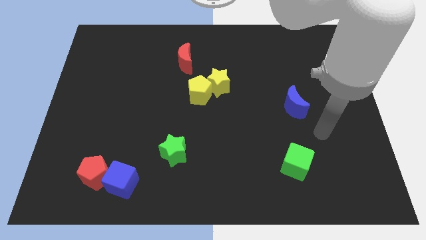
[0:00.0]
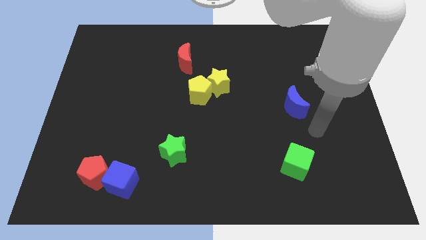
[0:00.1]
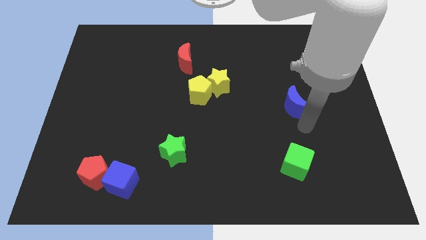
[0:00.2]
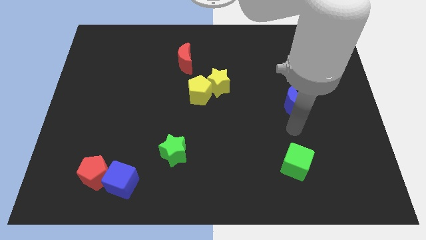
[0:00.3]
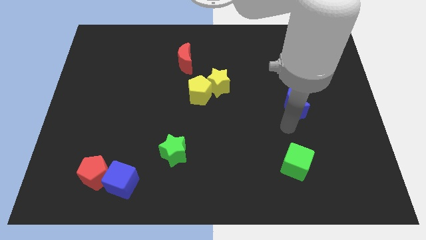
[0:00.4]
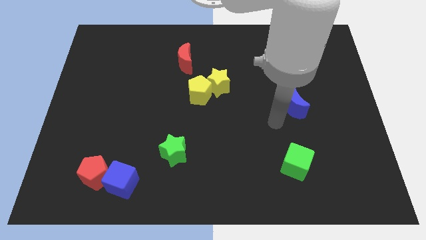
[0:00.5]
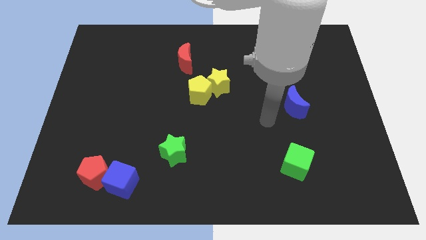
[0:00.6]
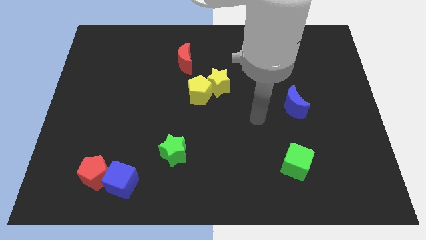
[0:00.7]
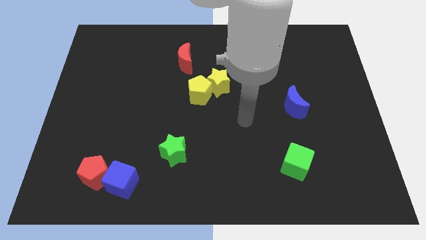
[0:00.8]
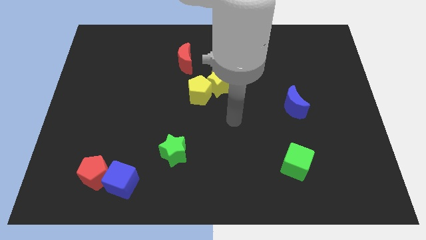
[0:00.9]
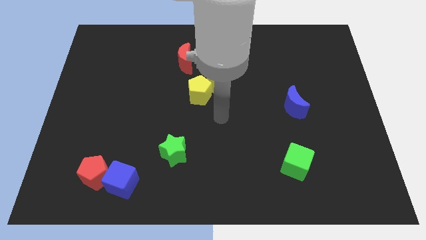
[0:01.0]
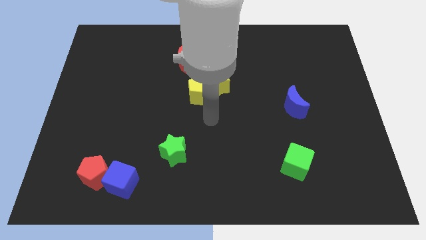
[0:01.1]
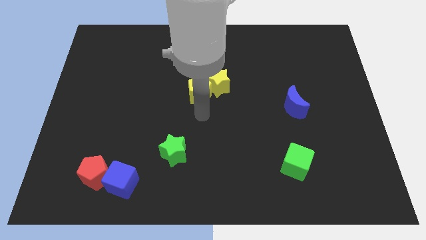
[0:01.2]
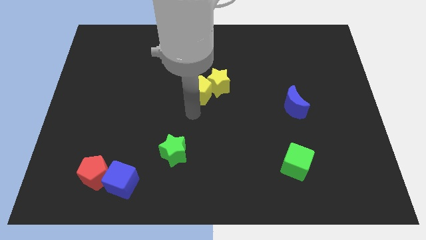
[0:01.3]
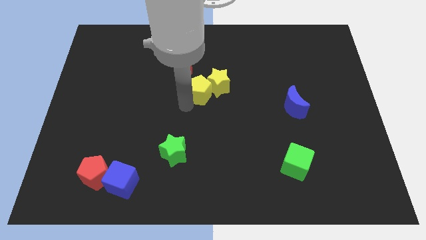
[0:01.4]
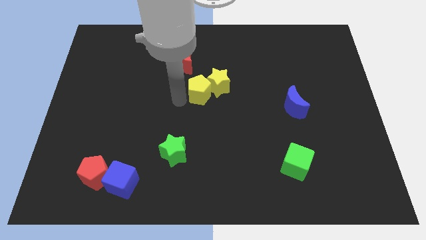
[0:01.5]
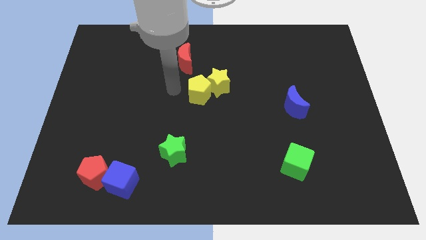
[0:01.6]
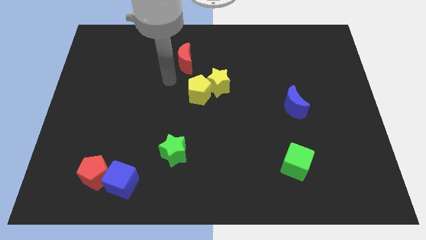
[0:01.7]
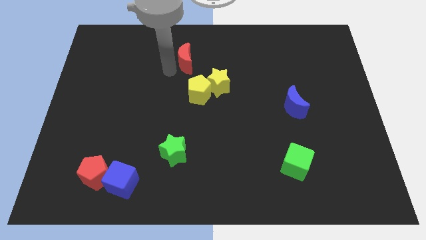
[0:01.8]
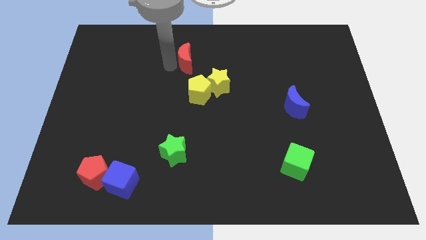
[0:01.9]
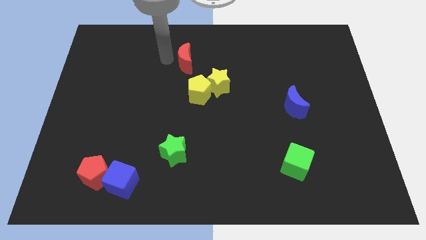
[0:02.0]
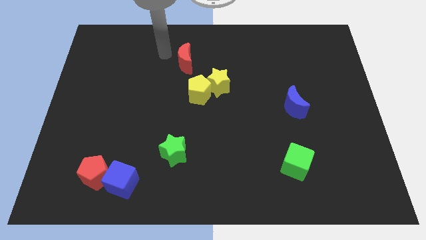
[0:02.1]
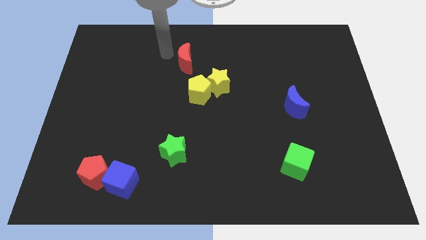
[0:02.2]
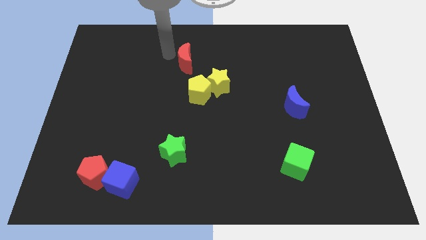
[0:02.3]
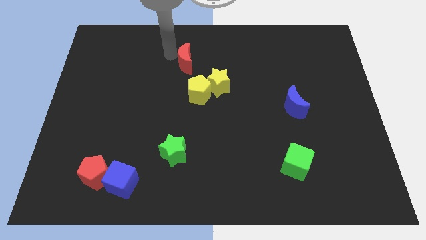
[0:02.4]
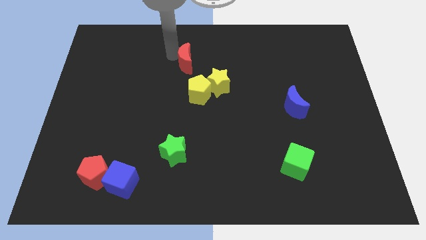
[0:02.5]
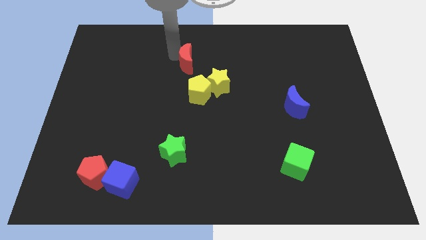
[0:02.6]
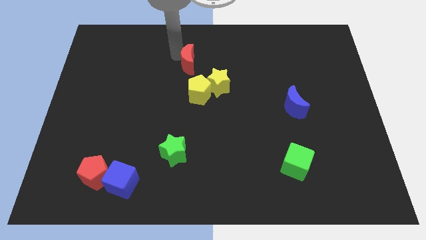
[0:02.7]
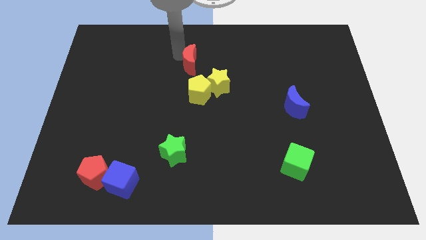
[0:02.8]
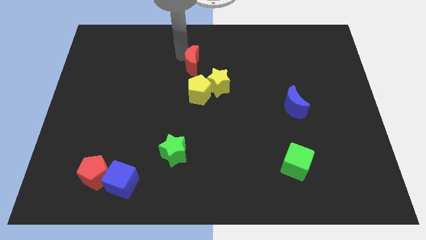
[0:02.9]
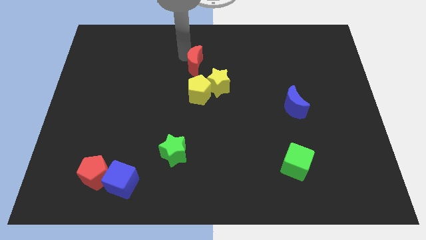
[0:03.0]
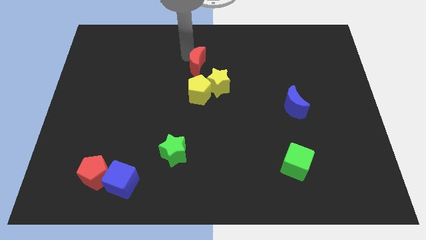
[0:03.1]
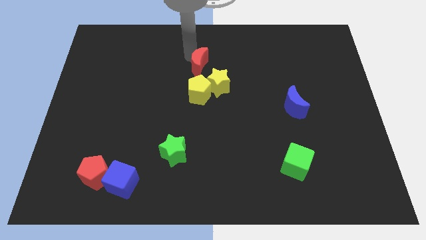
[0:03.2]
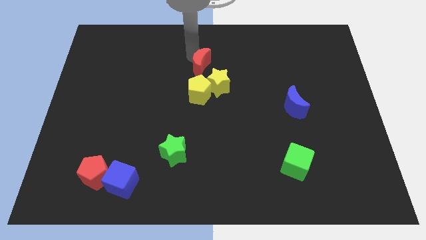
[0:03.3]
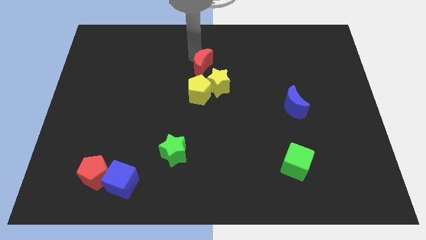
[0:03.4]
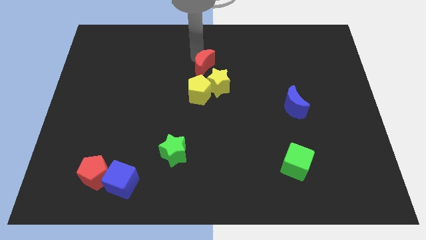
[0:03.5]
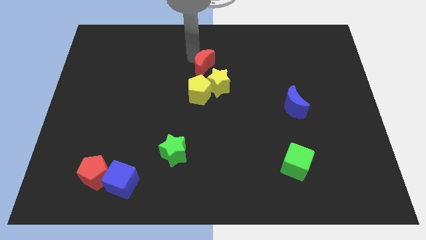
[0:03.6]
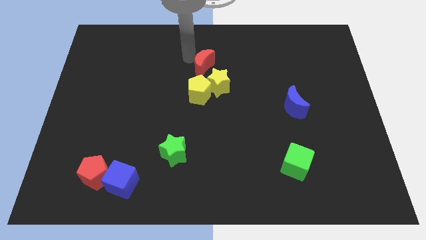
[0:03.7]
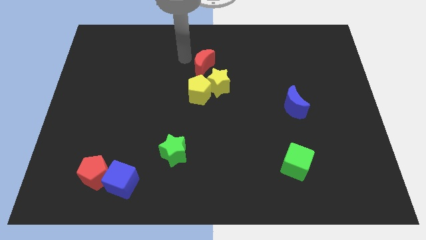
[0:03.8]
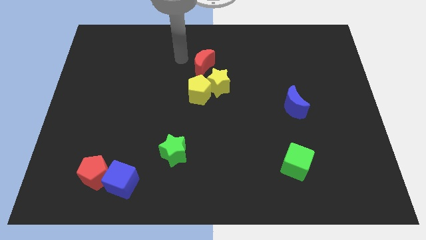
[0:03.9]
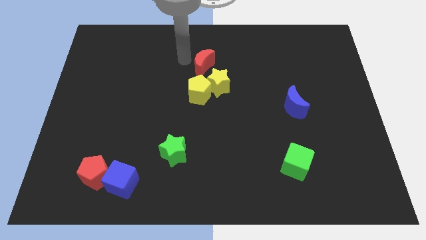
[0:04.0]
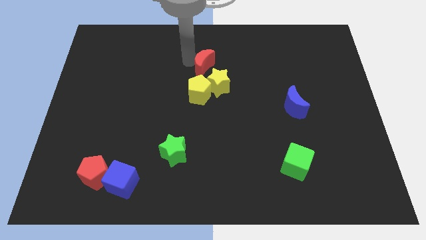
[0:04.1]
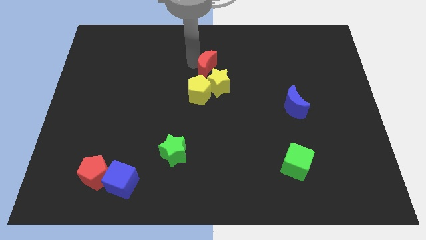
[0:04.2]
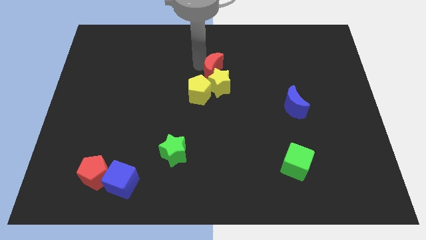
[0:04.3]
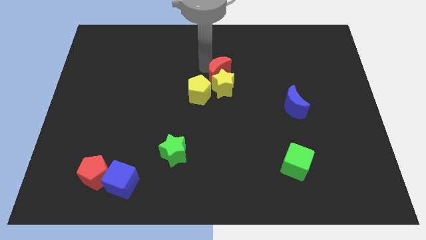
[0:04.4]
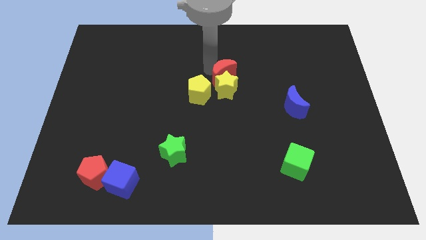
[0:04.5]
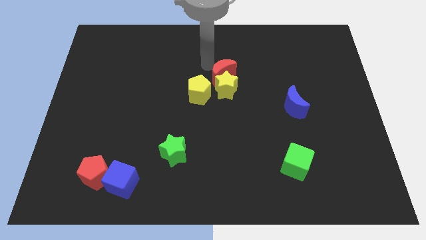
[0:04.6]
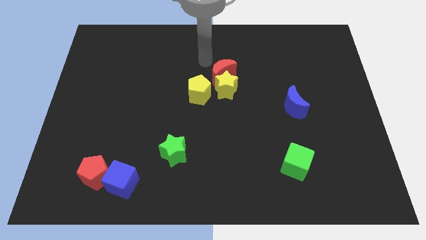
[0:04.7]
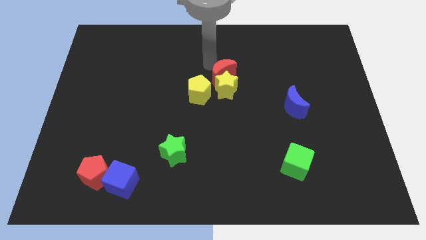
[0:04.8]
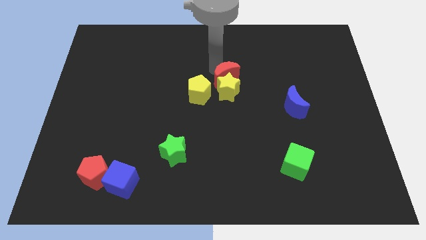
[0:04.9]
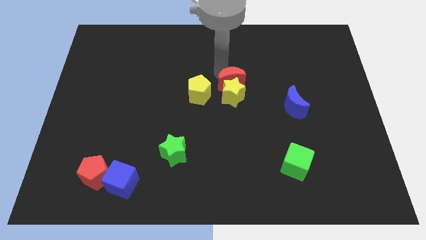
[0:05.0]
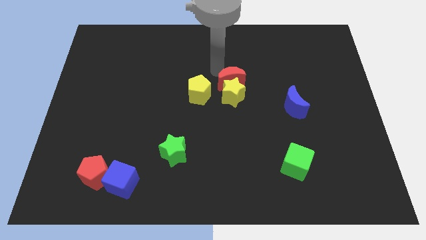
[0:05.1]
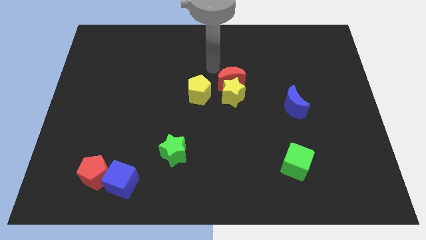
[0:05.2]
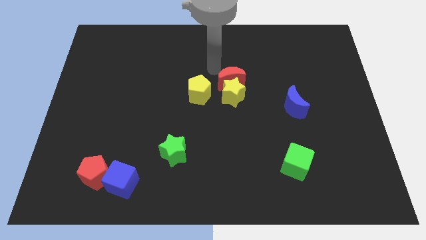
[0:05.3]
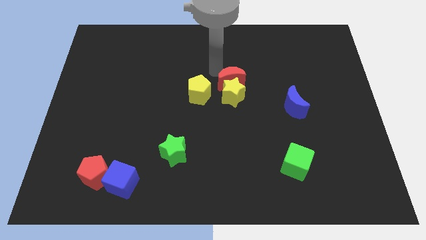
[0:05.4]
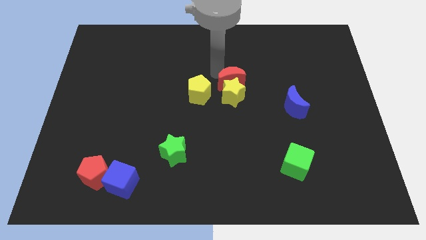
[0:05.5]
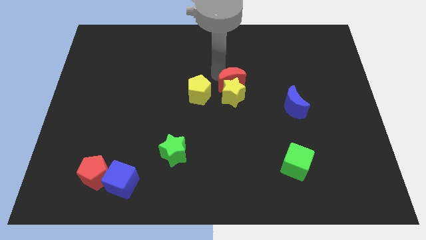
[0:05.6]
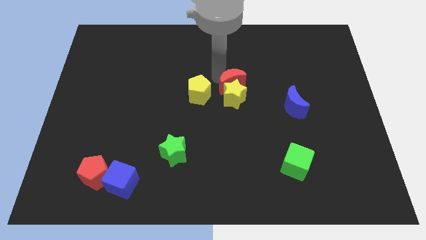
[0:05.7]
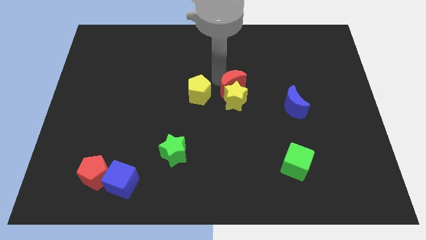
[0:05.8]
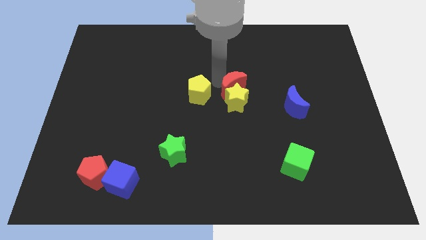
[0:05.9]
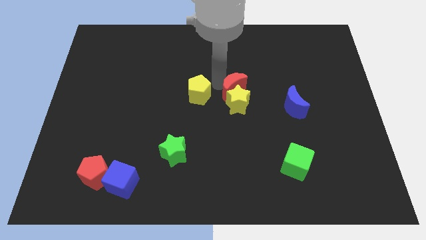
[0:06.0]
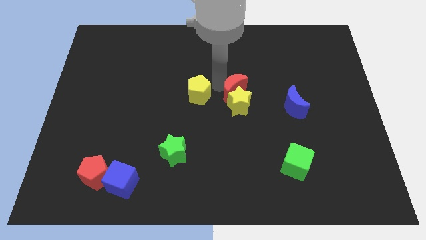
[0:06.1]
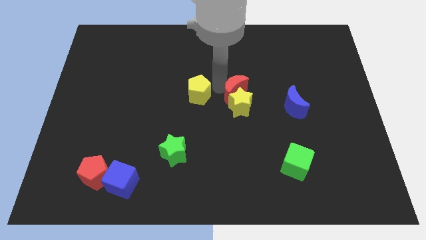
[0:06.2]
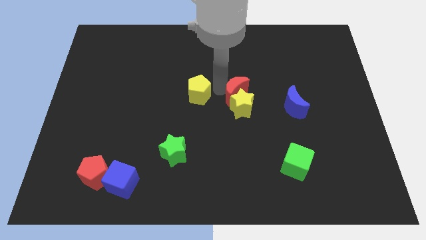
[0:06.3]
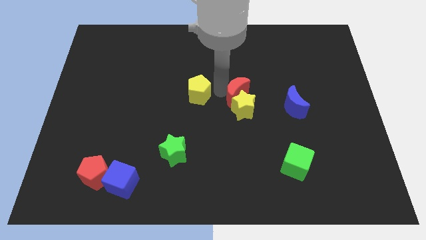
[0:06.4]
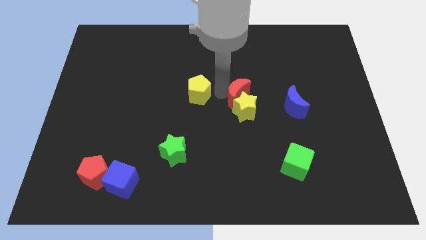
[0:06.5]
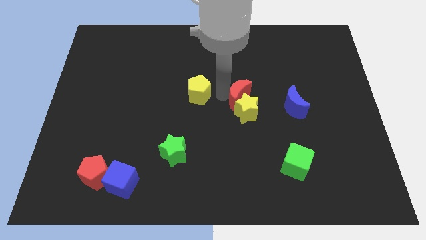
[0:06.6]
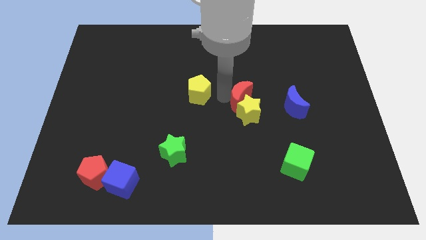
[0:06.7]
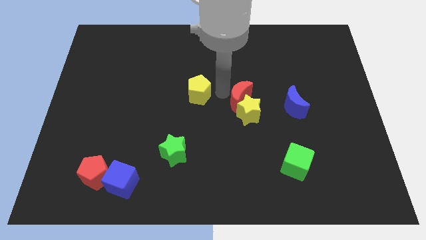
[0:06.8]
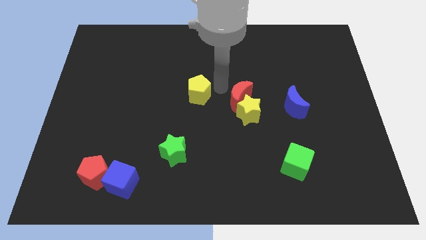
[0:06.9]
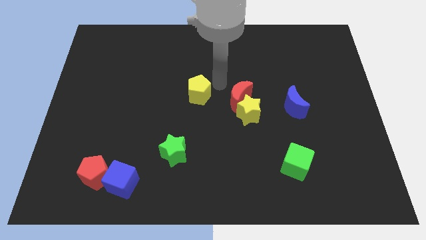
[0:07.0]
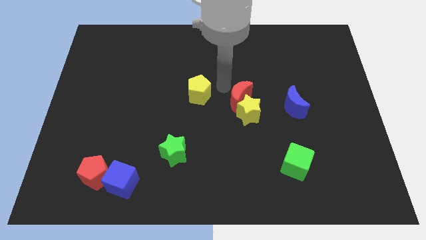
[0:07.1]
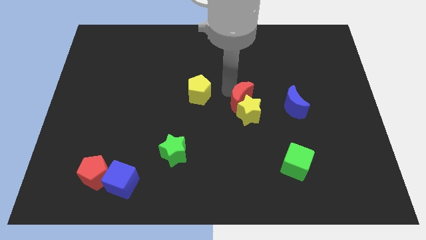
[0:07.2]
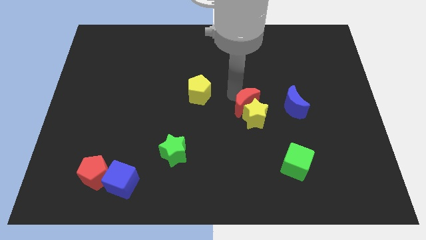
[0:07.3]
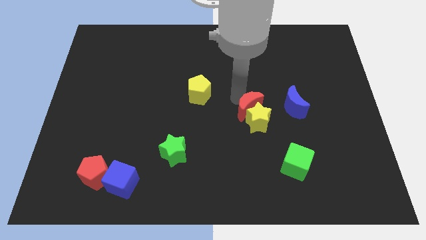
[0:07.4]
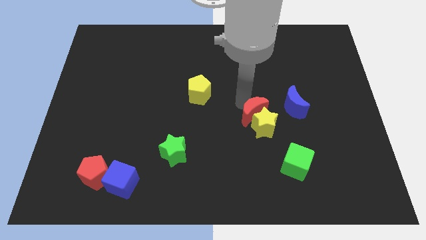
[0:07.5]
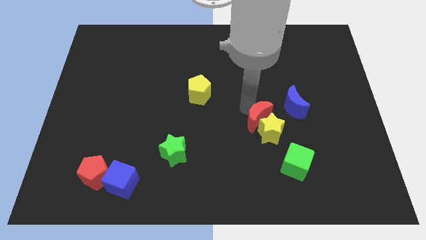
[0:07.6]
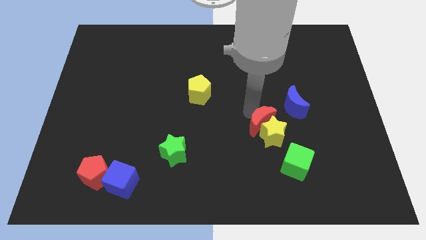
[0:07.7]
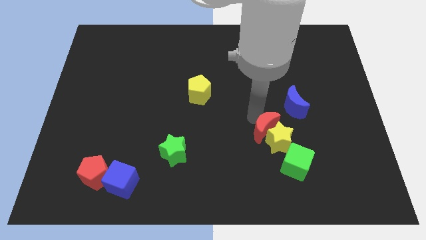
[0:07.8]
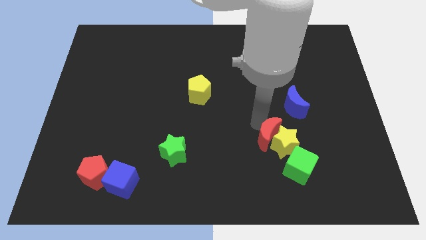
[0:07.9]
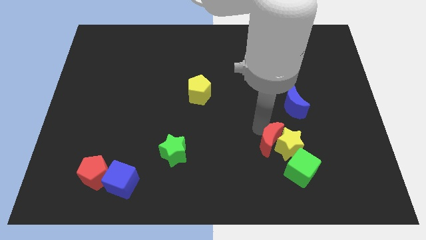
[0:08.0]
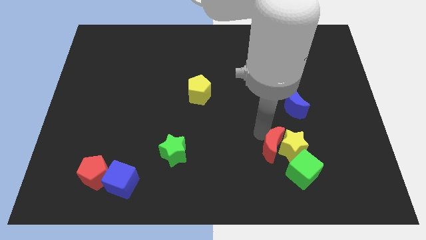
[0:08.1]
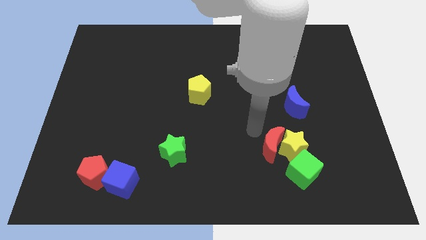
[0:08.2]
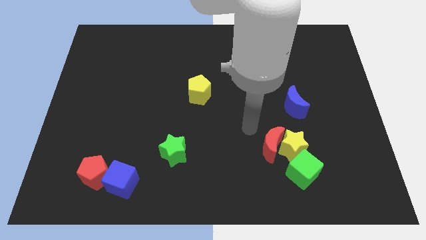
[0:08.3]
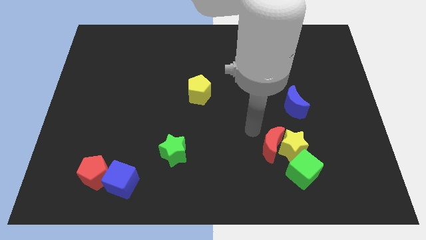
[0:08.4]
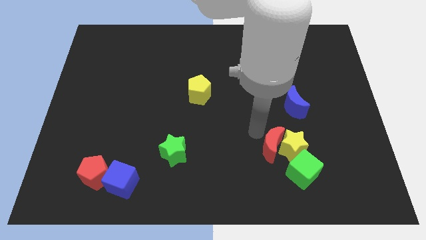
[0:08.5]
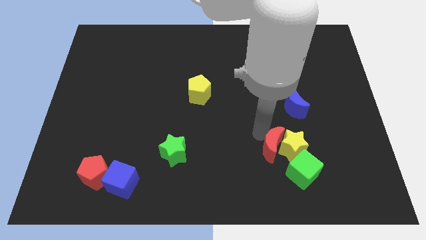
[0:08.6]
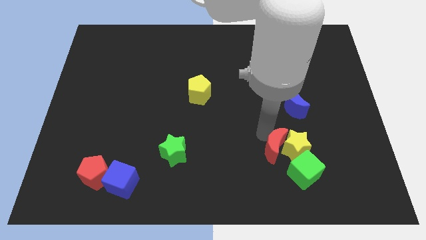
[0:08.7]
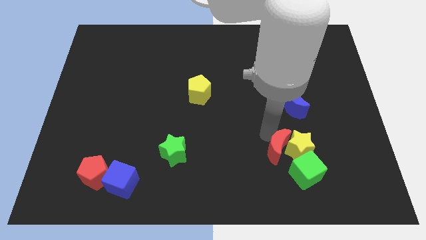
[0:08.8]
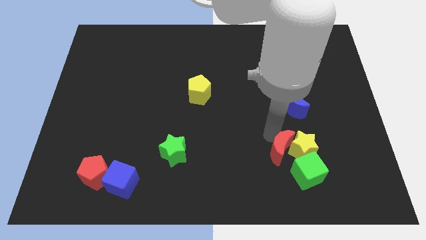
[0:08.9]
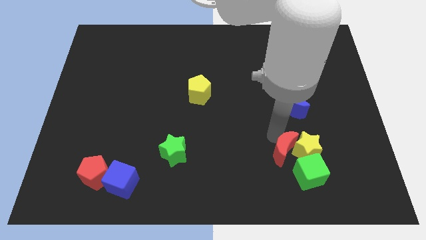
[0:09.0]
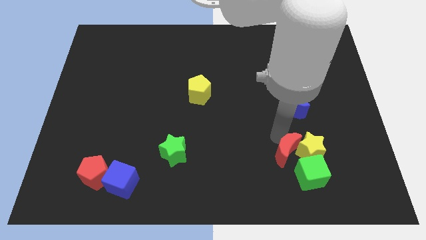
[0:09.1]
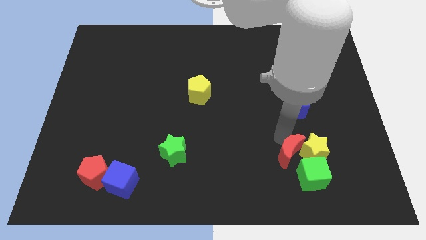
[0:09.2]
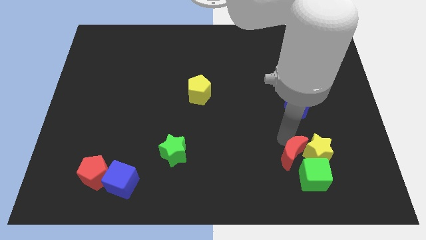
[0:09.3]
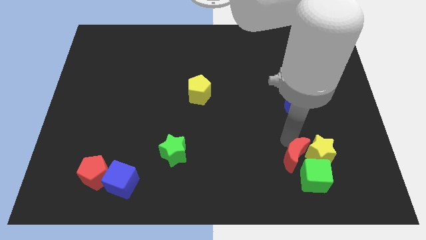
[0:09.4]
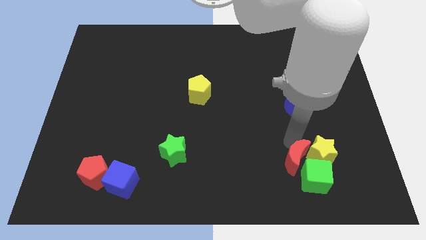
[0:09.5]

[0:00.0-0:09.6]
put the red moon to the green cube
